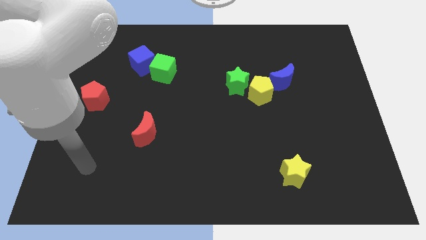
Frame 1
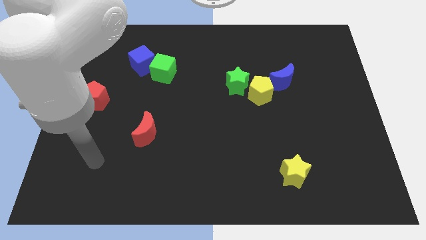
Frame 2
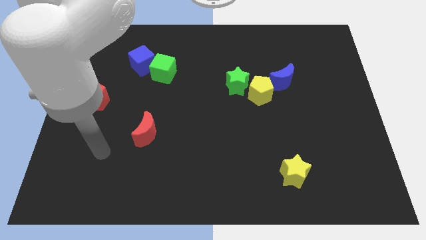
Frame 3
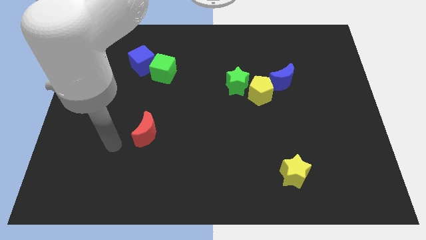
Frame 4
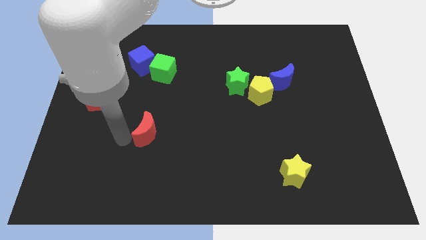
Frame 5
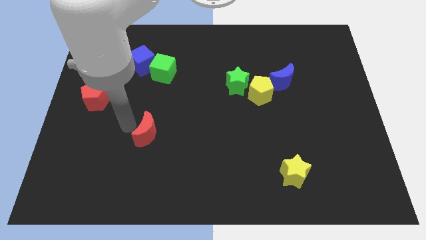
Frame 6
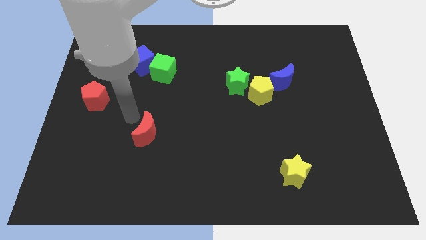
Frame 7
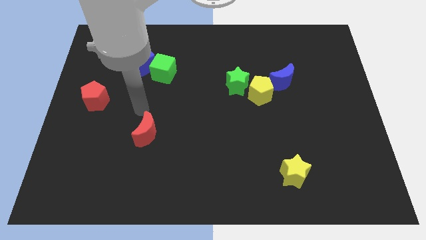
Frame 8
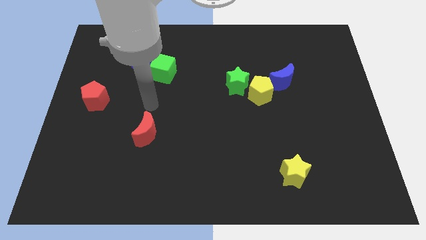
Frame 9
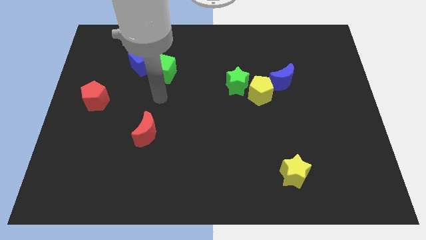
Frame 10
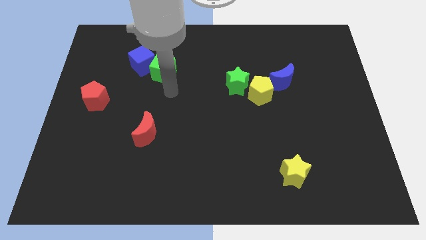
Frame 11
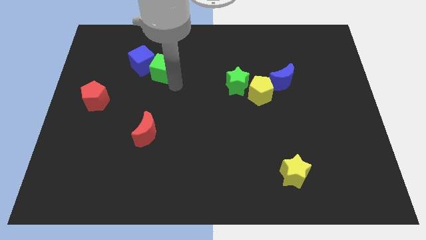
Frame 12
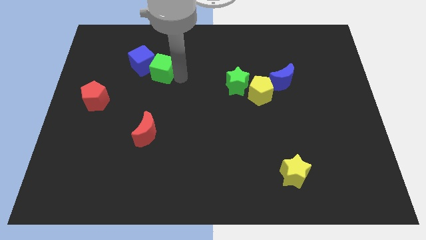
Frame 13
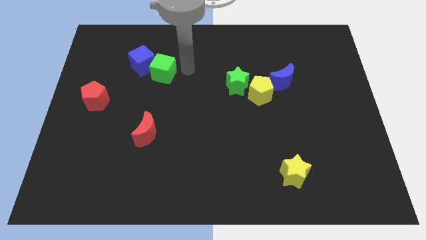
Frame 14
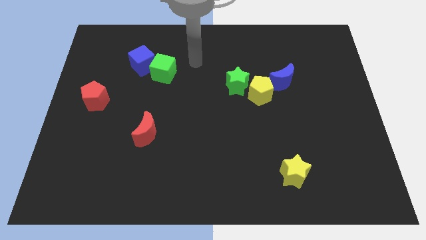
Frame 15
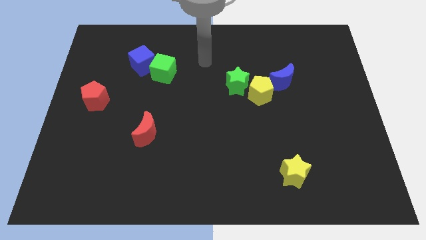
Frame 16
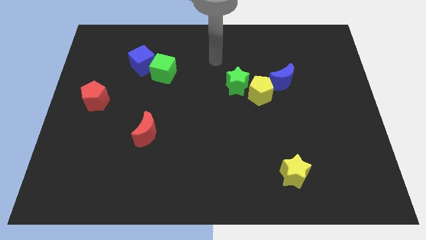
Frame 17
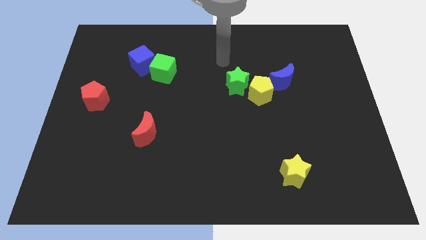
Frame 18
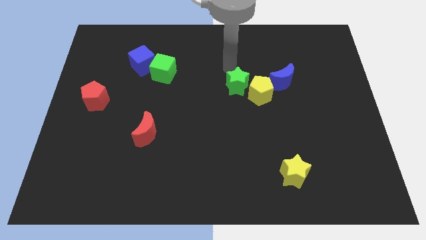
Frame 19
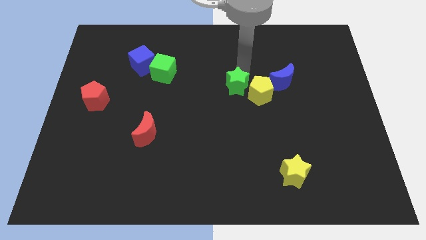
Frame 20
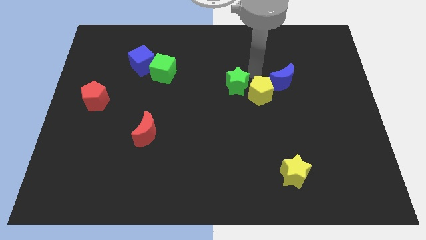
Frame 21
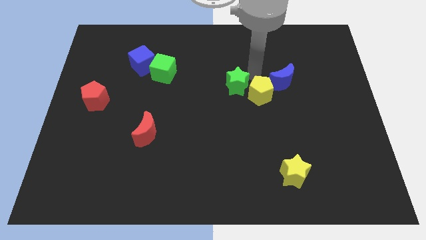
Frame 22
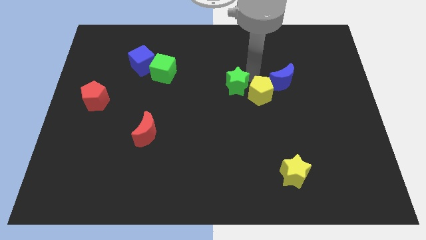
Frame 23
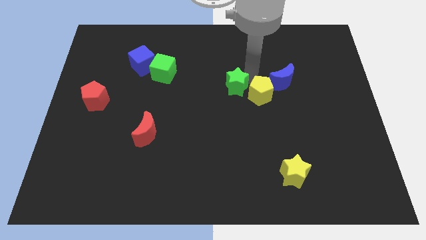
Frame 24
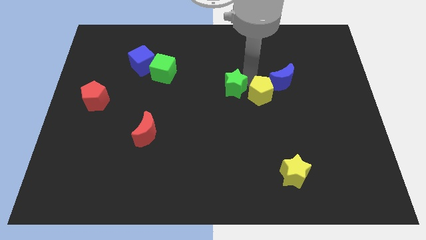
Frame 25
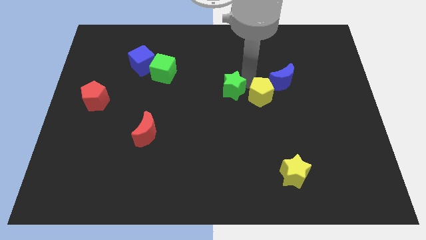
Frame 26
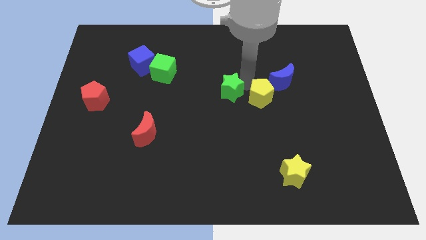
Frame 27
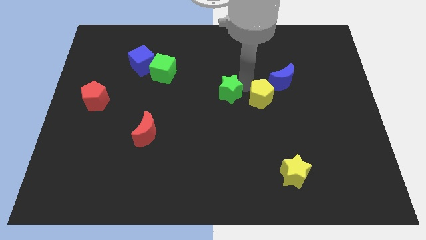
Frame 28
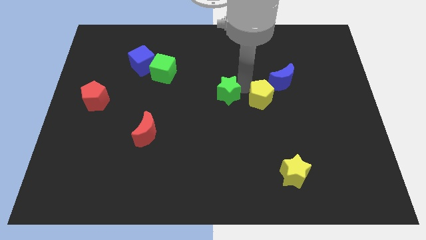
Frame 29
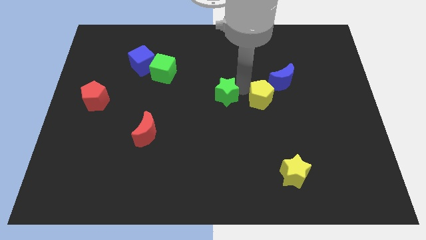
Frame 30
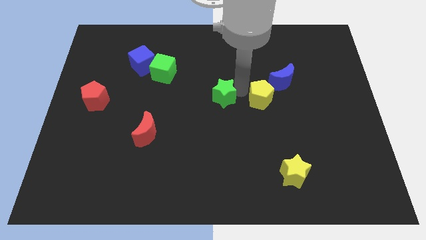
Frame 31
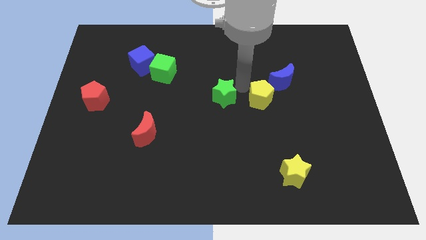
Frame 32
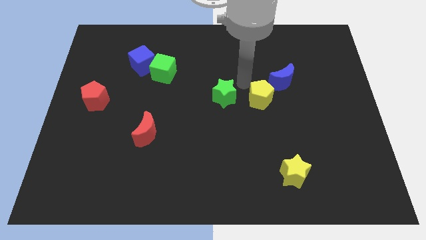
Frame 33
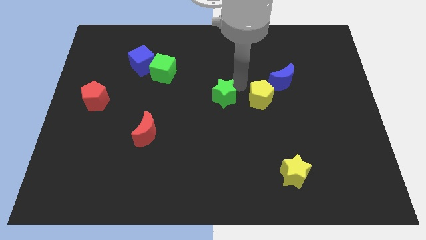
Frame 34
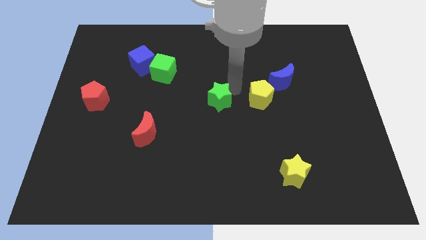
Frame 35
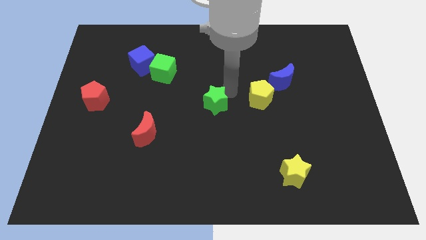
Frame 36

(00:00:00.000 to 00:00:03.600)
move the green star down and then to the left a little

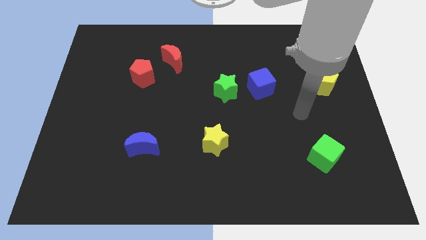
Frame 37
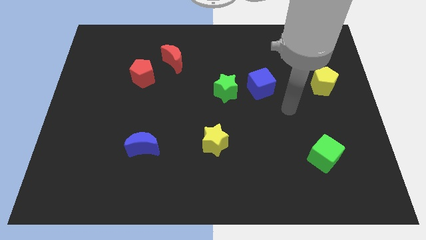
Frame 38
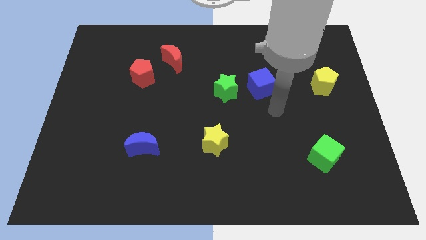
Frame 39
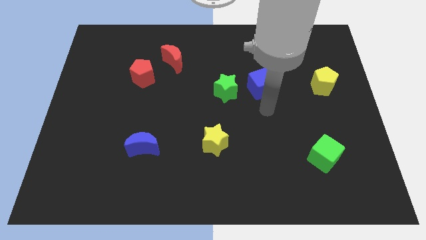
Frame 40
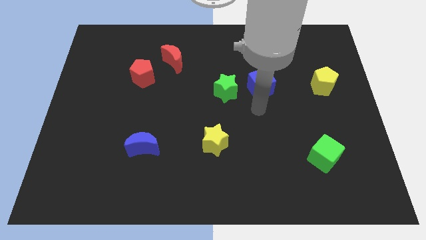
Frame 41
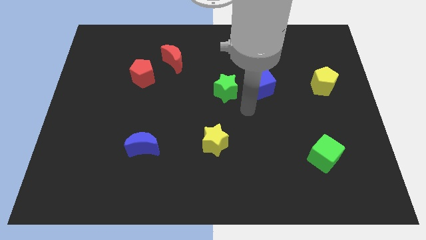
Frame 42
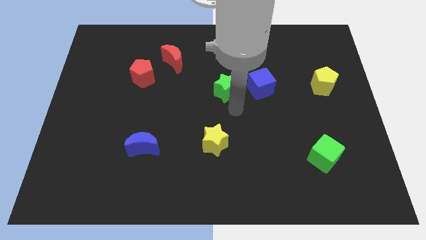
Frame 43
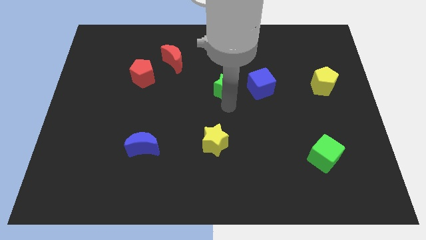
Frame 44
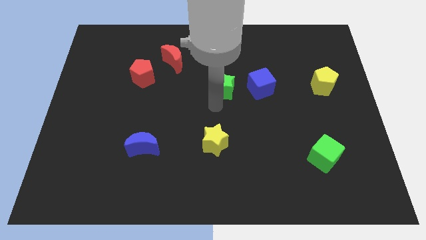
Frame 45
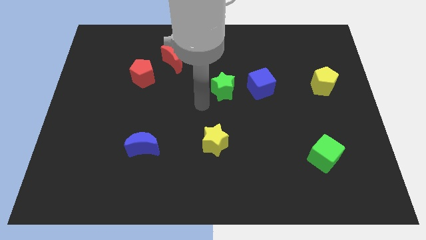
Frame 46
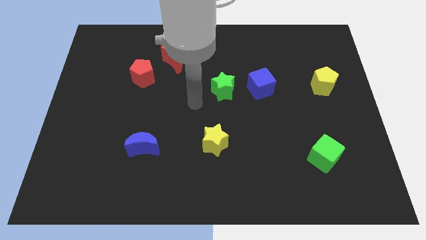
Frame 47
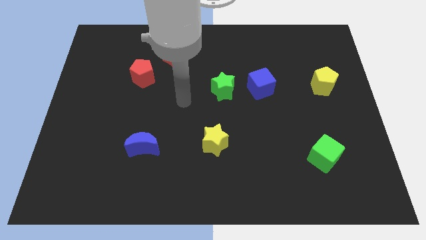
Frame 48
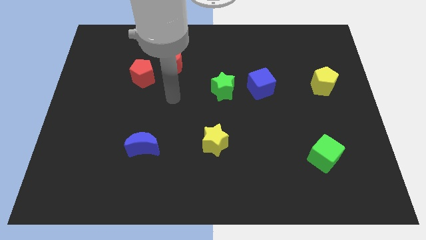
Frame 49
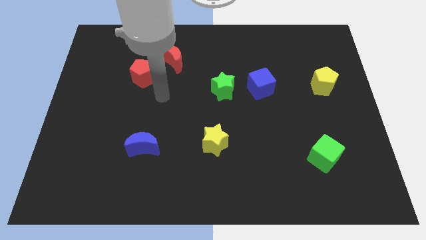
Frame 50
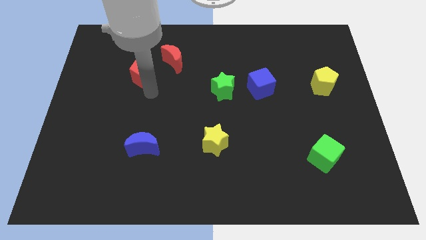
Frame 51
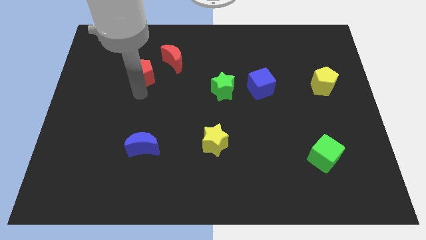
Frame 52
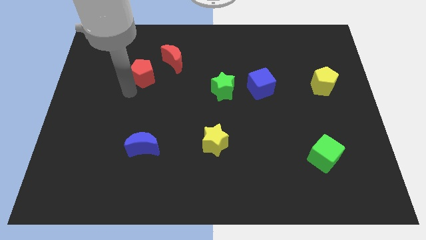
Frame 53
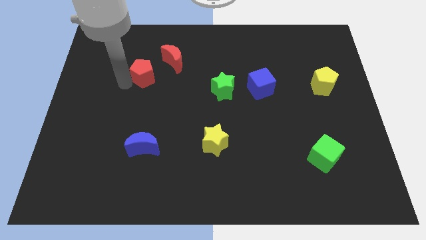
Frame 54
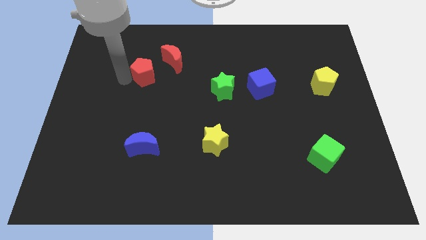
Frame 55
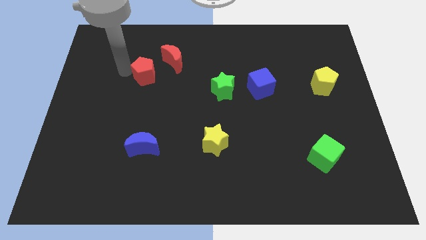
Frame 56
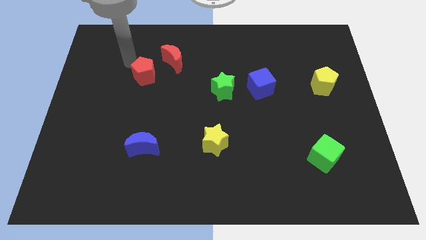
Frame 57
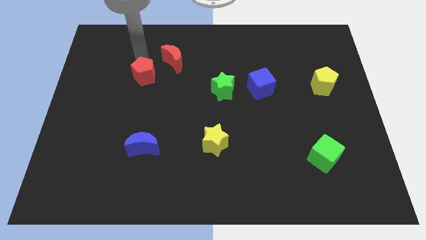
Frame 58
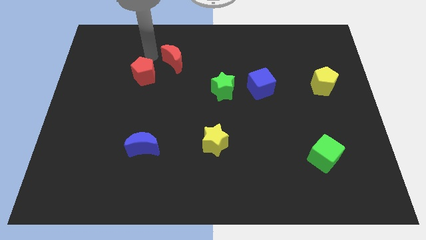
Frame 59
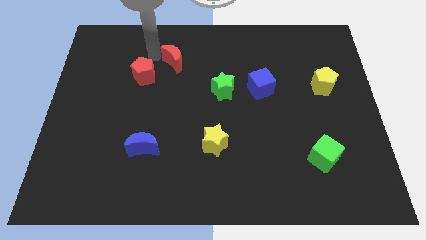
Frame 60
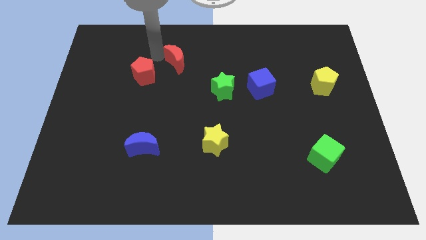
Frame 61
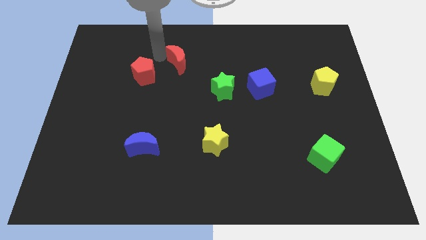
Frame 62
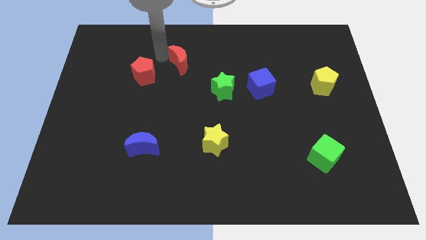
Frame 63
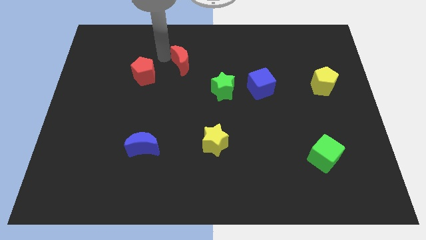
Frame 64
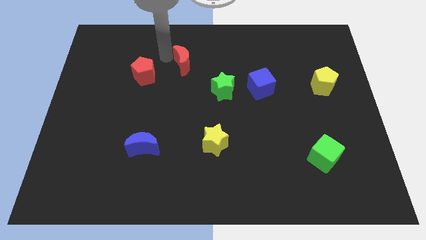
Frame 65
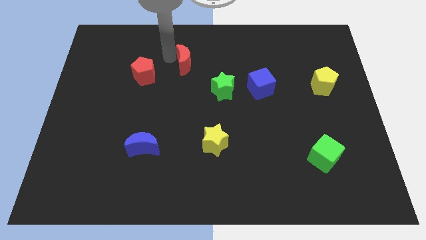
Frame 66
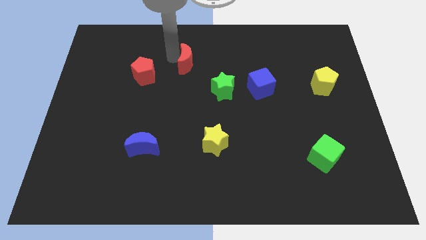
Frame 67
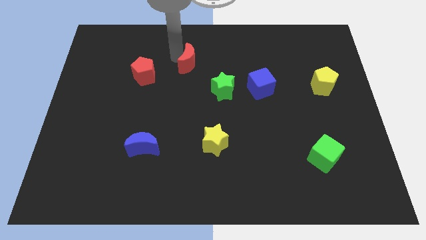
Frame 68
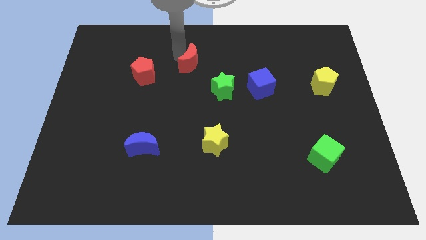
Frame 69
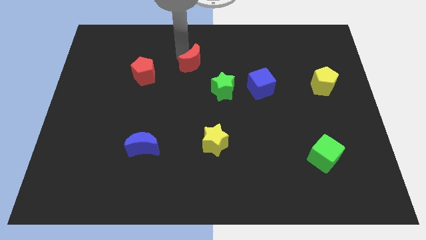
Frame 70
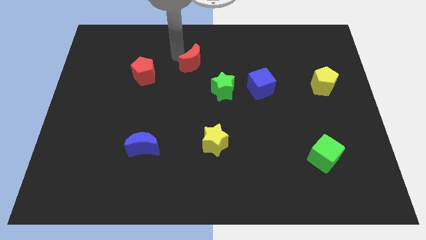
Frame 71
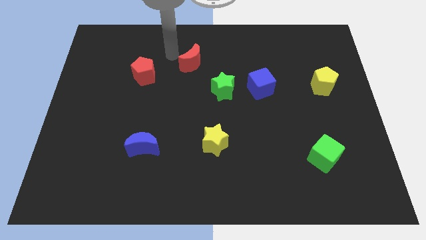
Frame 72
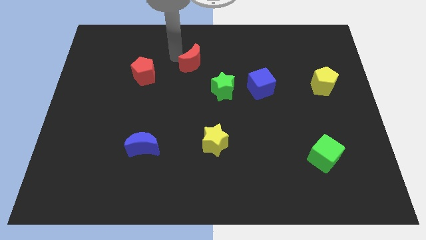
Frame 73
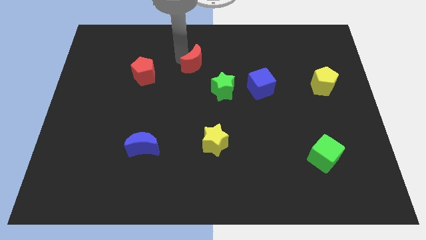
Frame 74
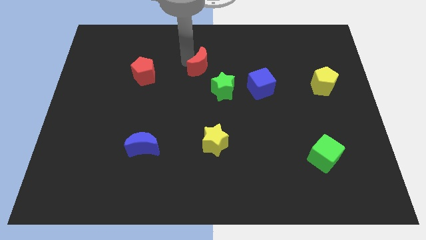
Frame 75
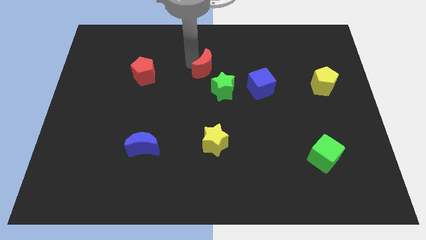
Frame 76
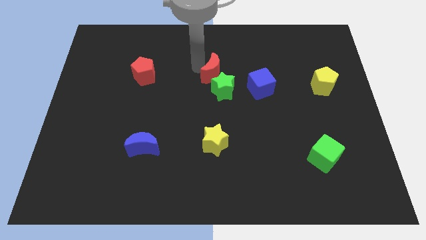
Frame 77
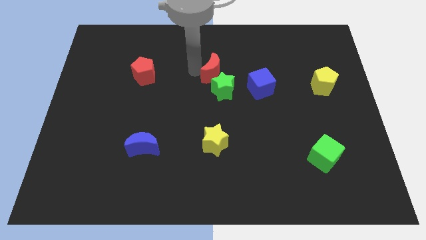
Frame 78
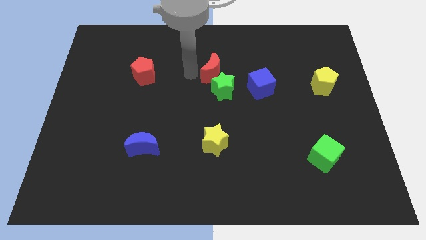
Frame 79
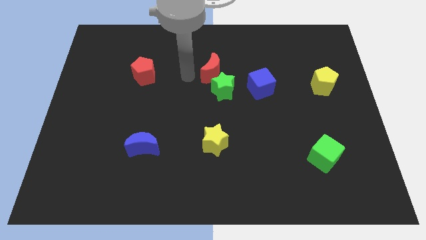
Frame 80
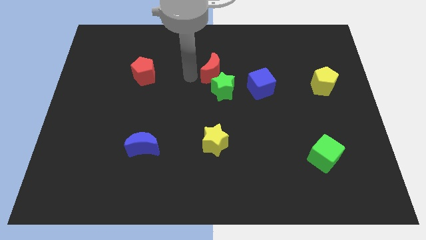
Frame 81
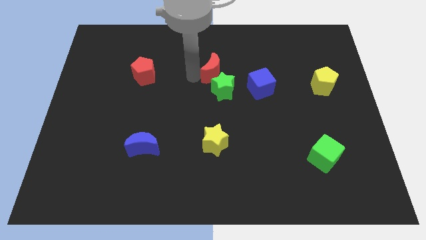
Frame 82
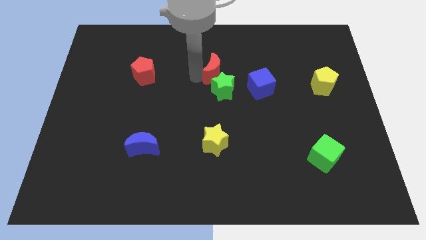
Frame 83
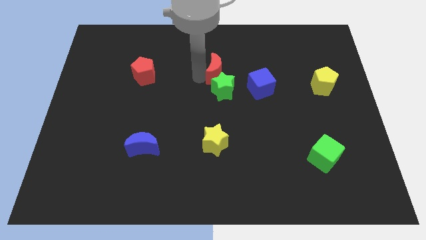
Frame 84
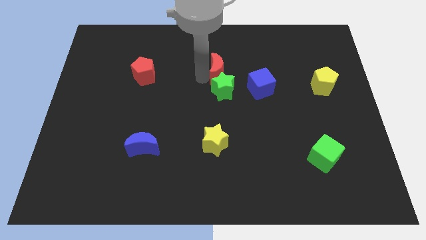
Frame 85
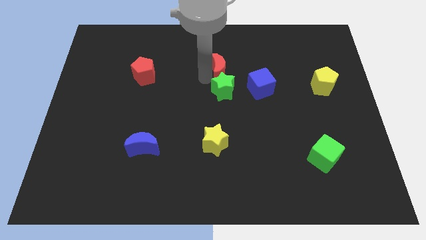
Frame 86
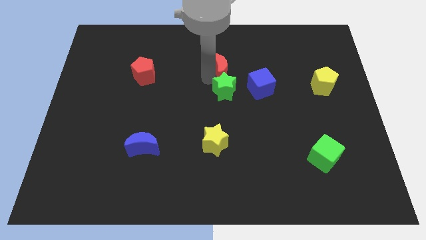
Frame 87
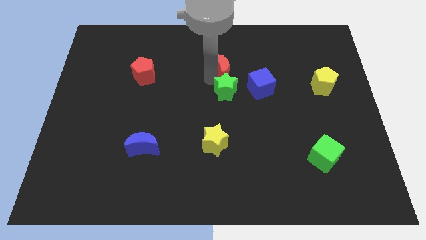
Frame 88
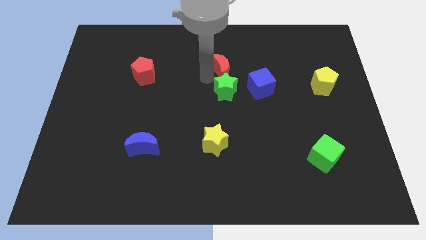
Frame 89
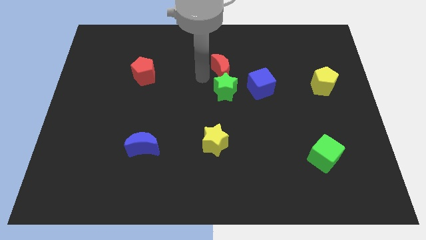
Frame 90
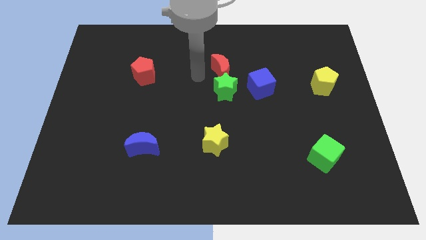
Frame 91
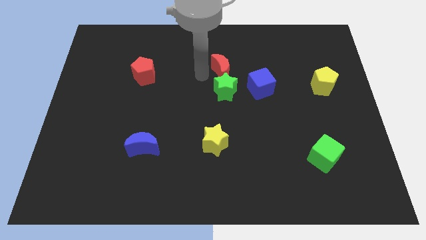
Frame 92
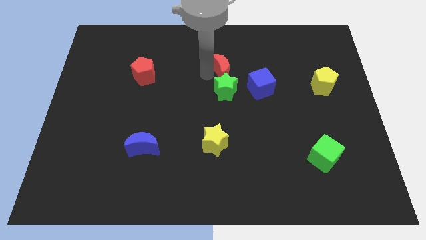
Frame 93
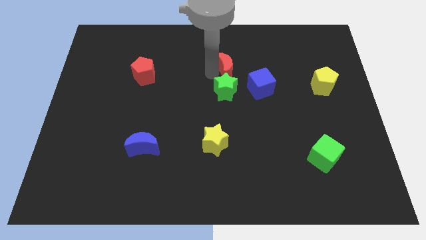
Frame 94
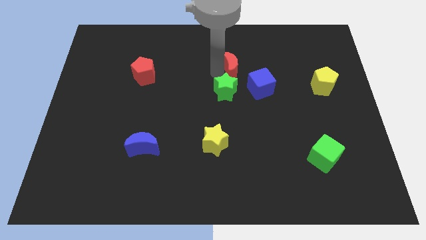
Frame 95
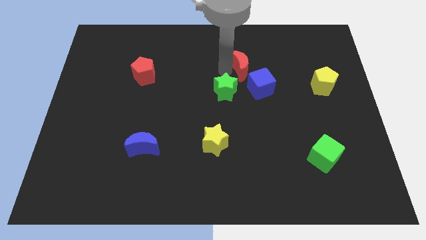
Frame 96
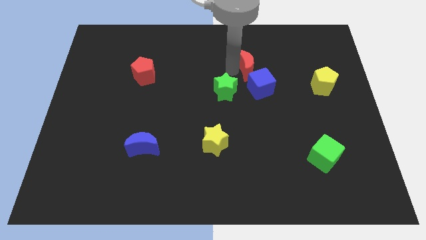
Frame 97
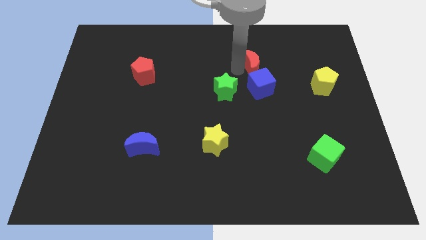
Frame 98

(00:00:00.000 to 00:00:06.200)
slide the red moon right
